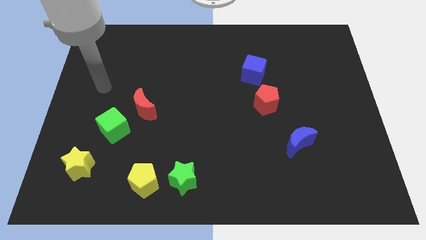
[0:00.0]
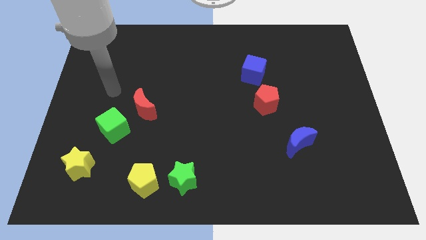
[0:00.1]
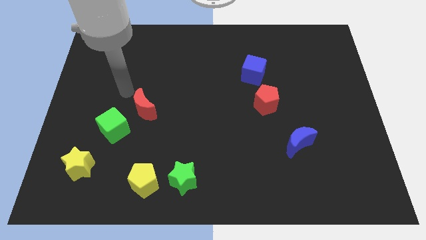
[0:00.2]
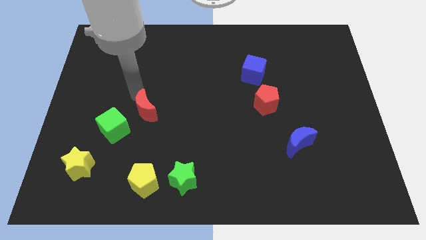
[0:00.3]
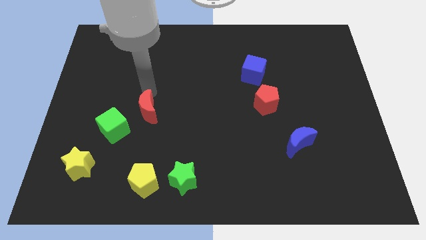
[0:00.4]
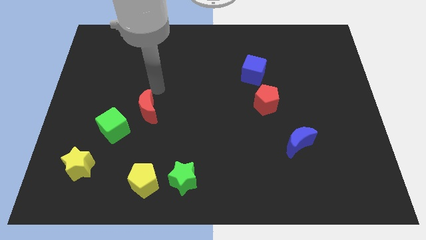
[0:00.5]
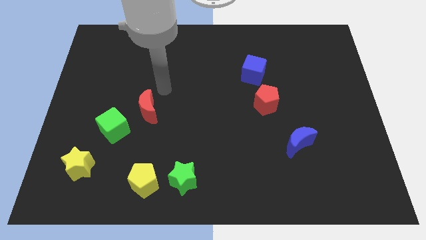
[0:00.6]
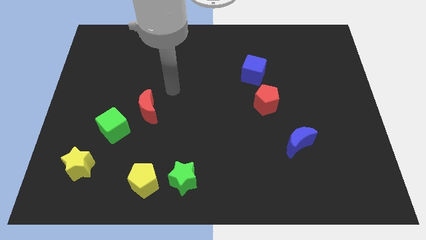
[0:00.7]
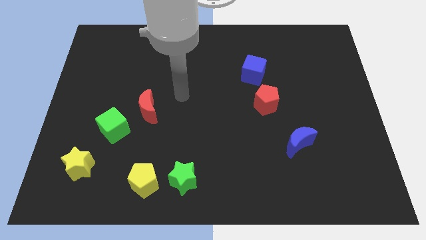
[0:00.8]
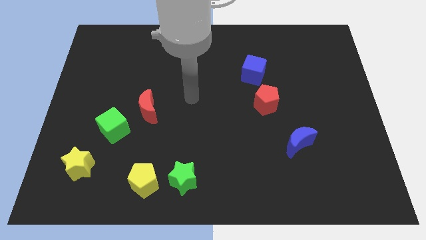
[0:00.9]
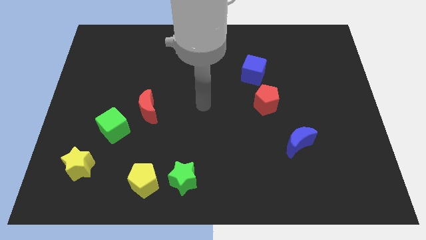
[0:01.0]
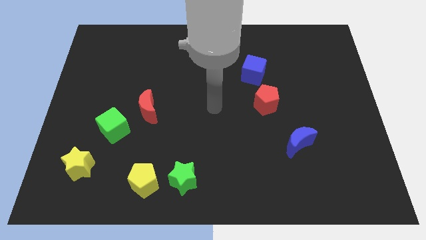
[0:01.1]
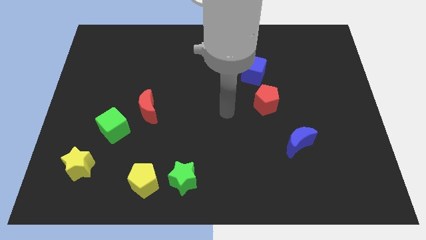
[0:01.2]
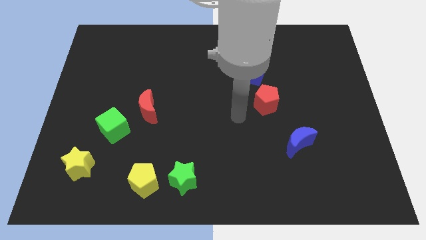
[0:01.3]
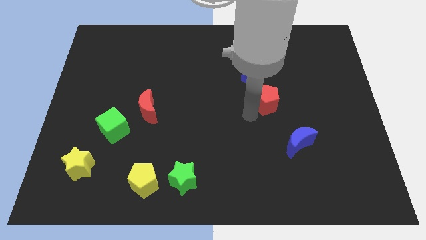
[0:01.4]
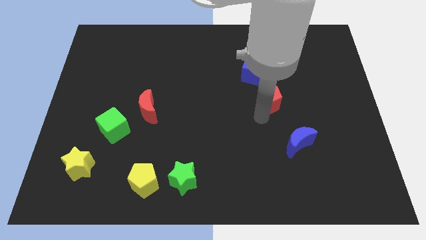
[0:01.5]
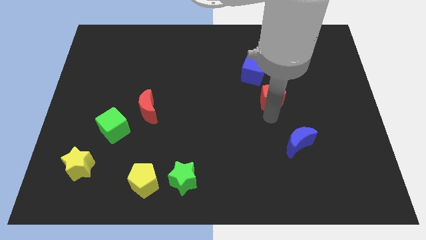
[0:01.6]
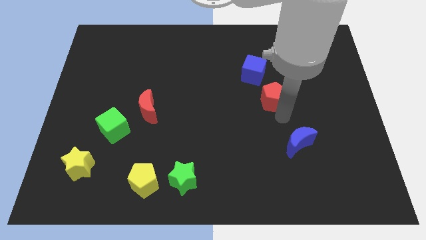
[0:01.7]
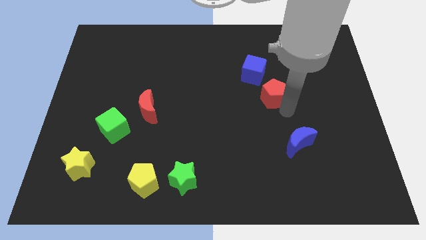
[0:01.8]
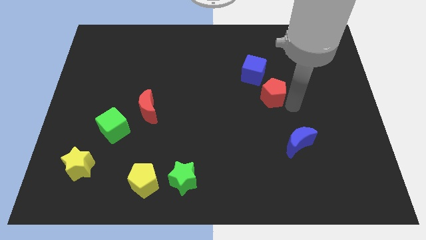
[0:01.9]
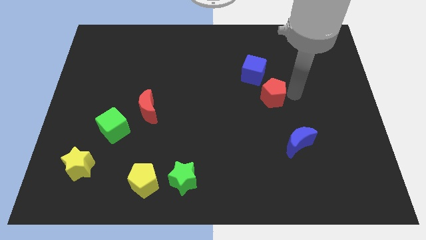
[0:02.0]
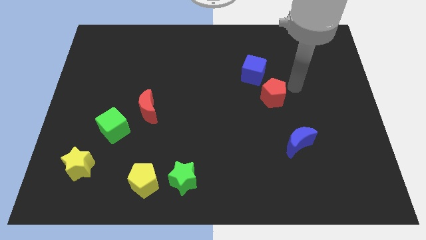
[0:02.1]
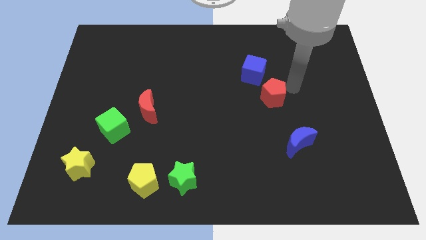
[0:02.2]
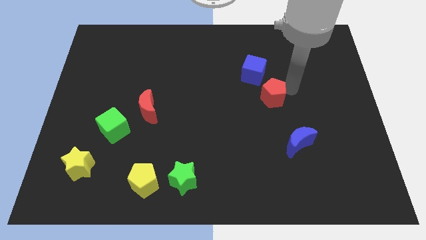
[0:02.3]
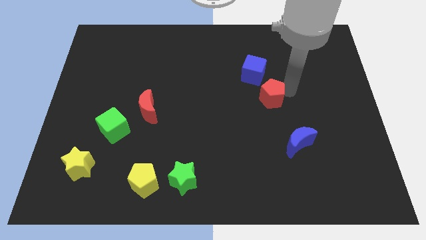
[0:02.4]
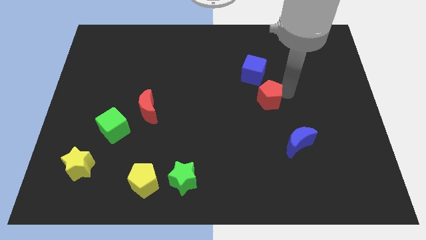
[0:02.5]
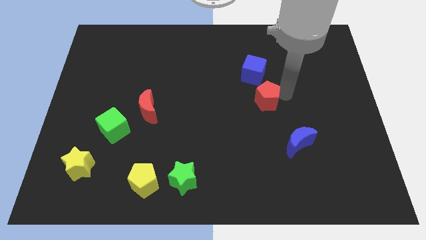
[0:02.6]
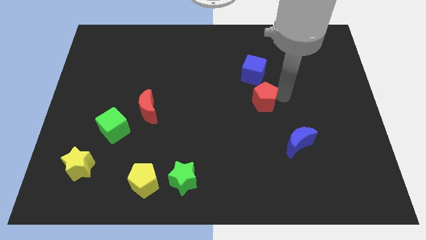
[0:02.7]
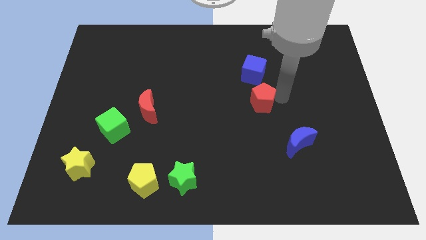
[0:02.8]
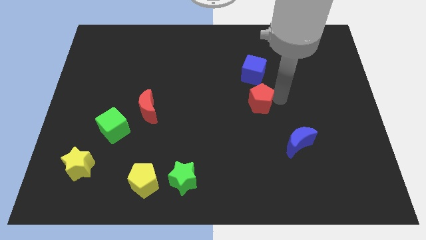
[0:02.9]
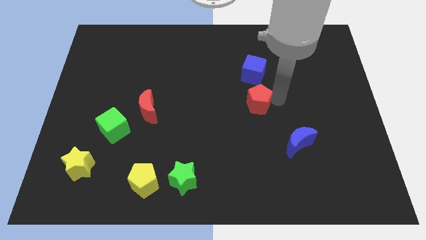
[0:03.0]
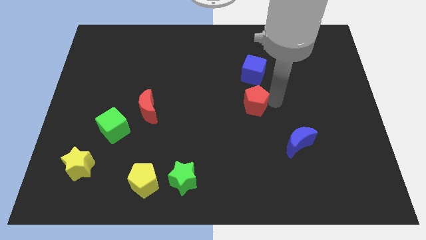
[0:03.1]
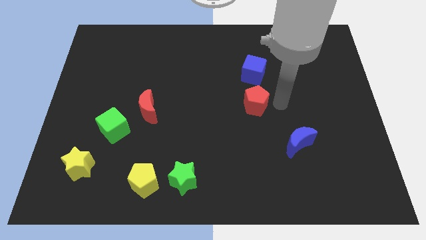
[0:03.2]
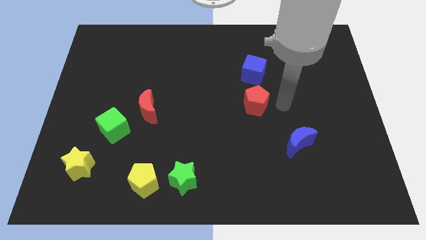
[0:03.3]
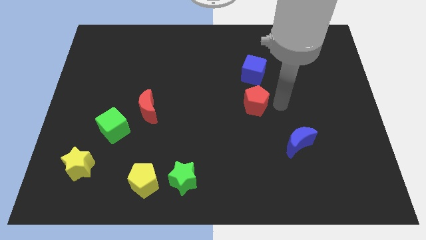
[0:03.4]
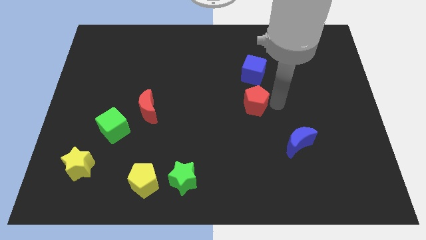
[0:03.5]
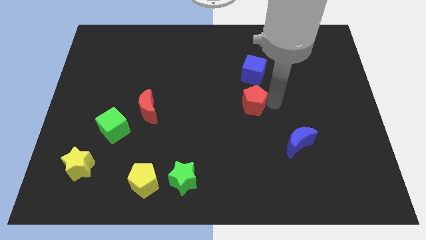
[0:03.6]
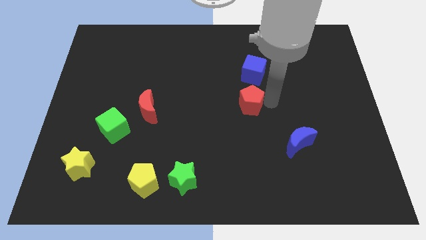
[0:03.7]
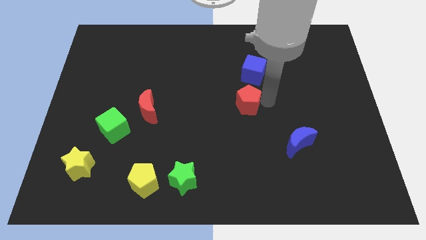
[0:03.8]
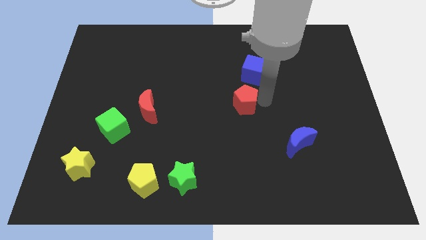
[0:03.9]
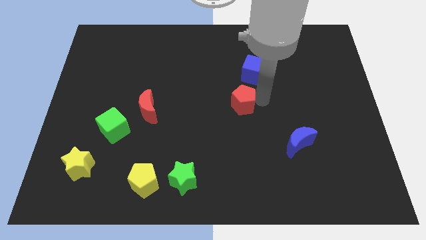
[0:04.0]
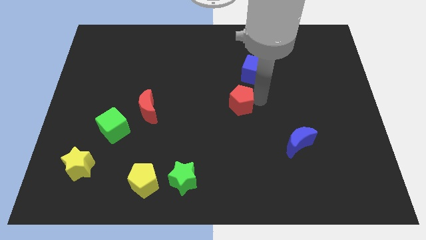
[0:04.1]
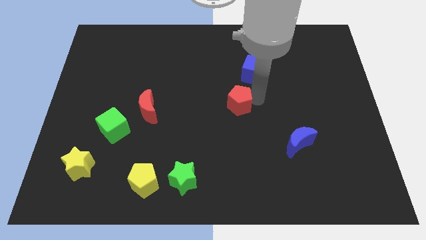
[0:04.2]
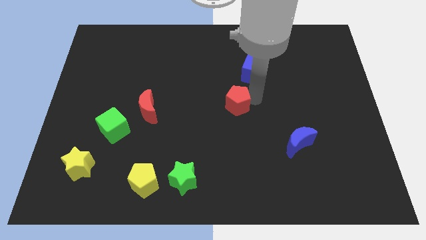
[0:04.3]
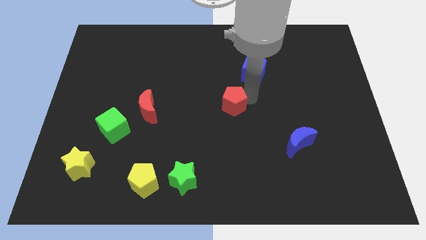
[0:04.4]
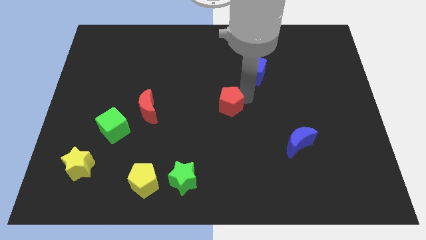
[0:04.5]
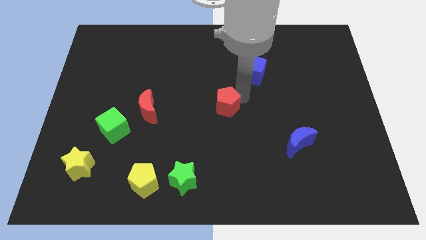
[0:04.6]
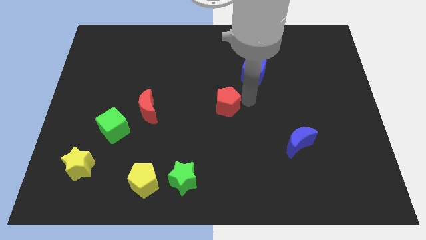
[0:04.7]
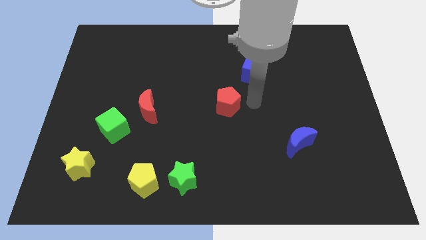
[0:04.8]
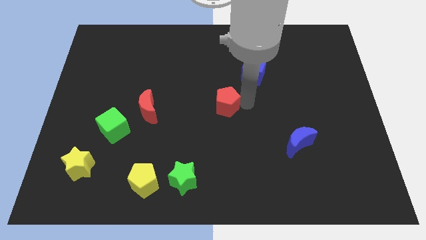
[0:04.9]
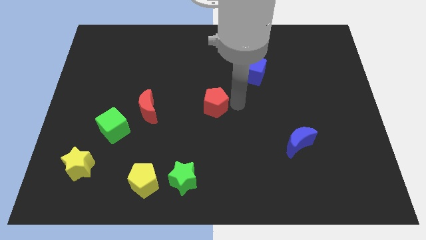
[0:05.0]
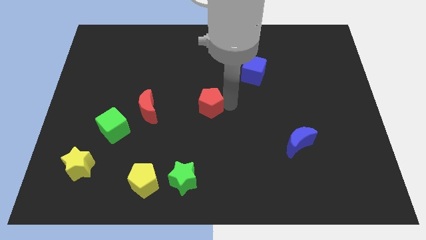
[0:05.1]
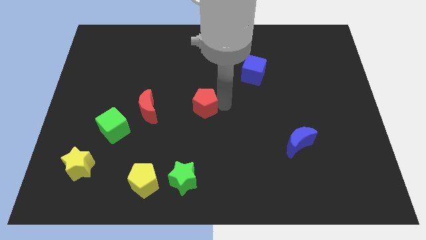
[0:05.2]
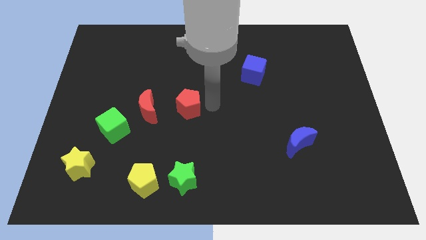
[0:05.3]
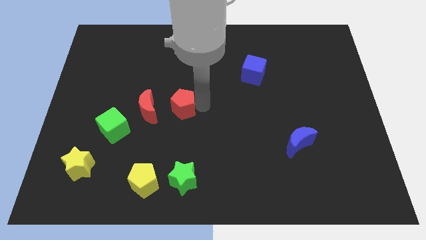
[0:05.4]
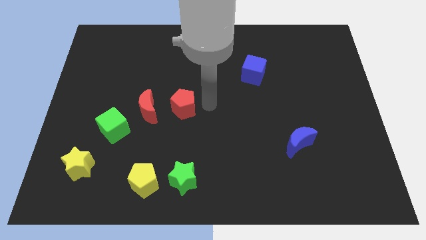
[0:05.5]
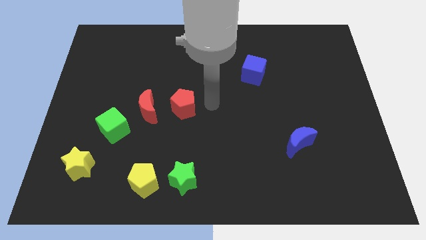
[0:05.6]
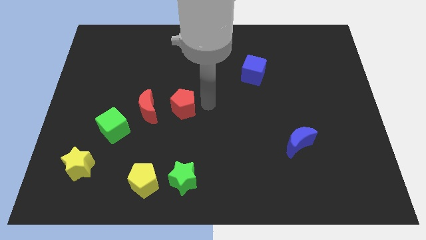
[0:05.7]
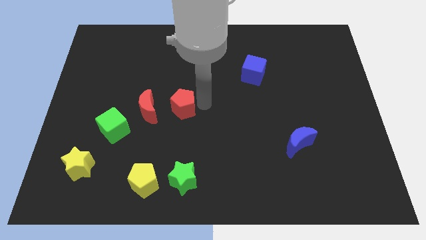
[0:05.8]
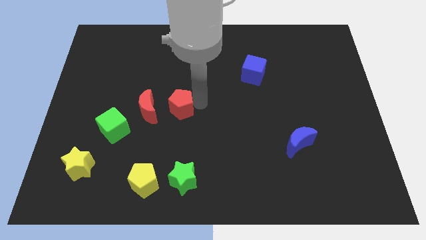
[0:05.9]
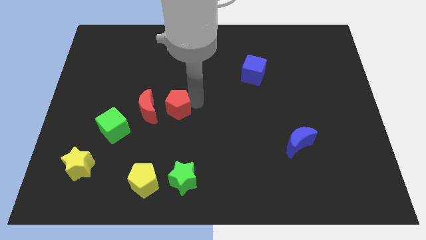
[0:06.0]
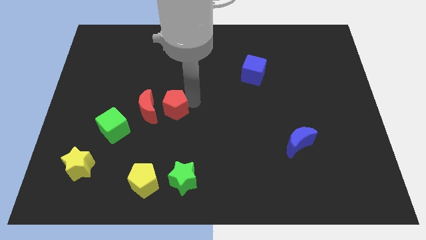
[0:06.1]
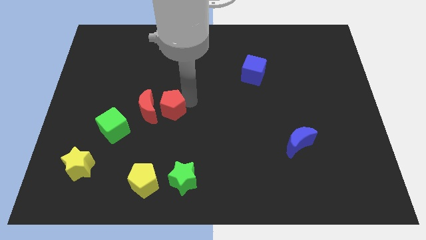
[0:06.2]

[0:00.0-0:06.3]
push the red pentagon close to the red moon

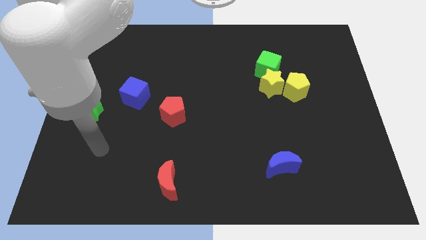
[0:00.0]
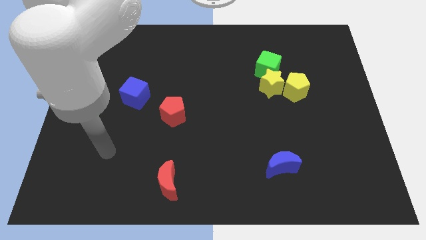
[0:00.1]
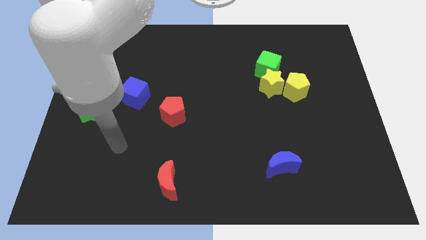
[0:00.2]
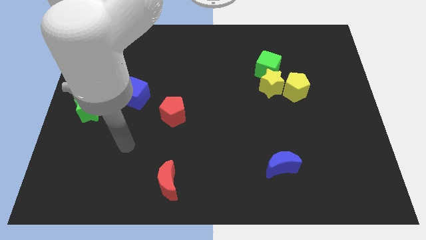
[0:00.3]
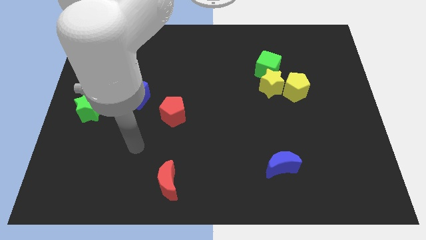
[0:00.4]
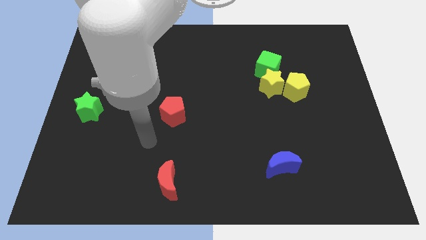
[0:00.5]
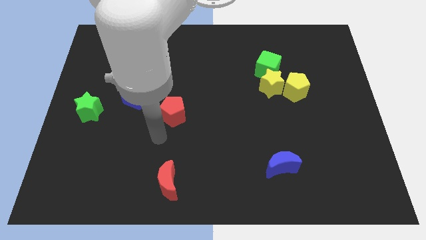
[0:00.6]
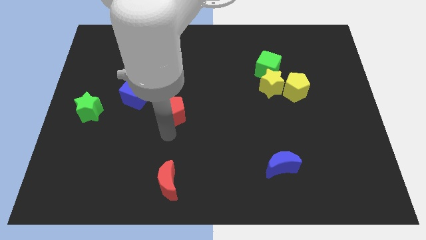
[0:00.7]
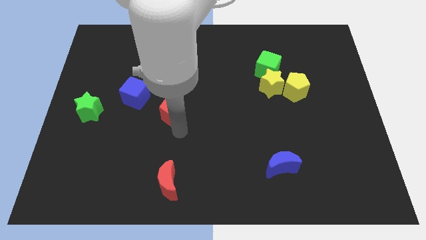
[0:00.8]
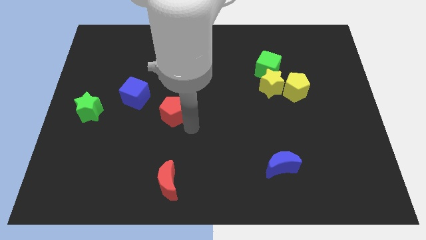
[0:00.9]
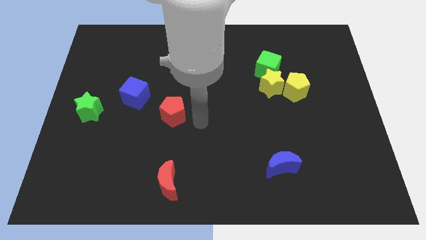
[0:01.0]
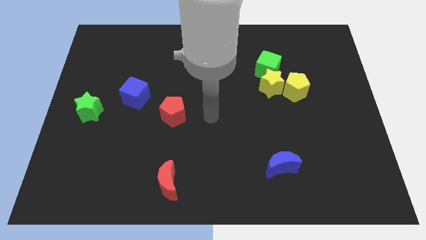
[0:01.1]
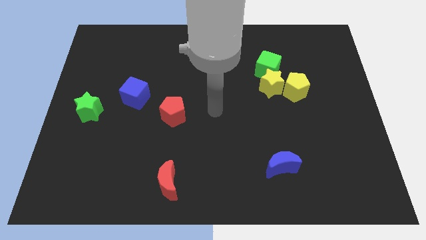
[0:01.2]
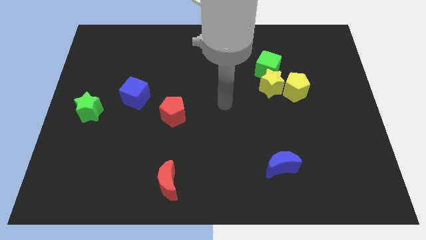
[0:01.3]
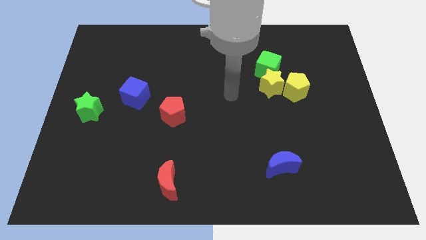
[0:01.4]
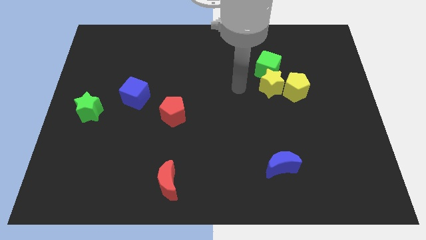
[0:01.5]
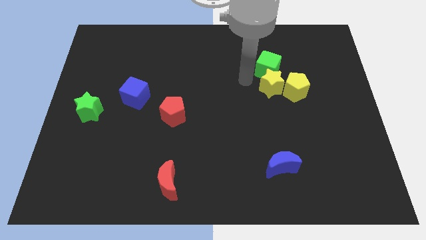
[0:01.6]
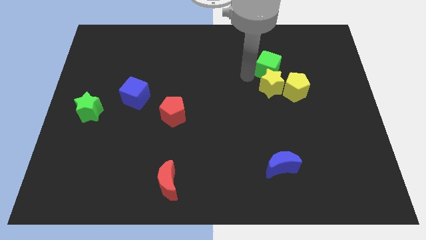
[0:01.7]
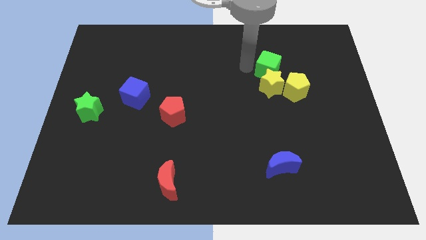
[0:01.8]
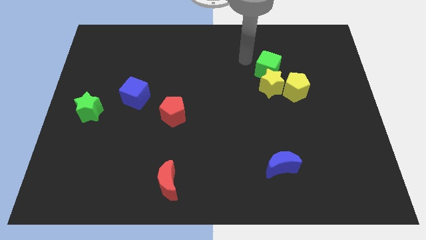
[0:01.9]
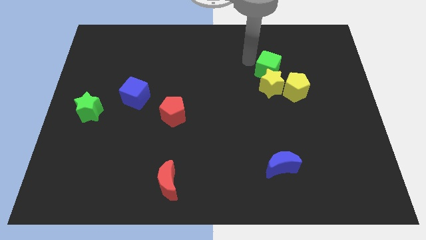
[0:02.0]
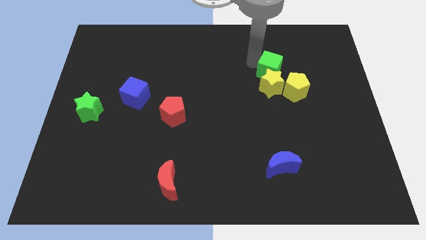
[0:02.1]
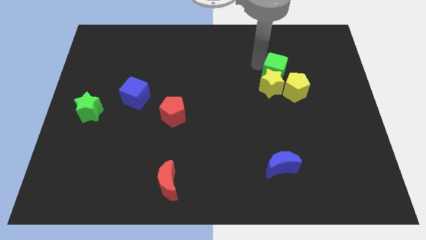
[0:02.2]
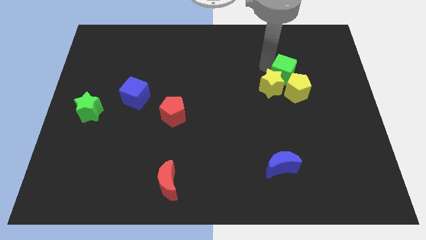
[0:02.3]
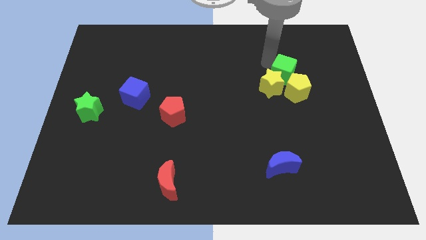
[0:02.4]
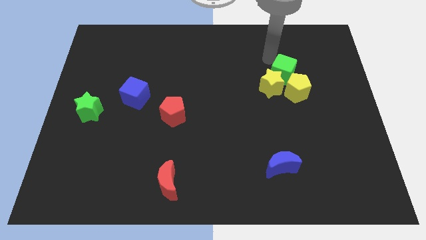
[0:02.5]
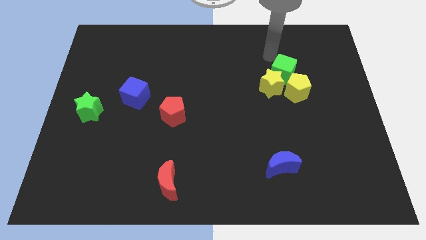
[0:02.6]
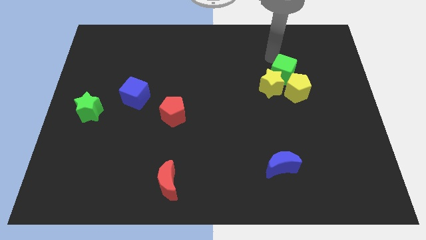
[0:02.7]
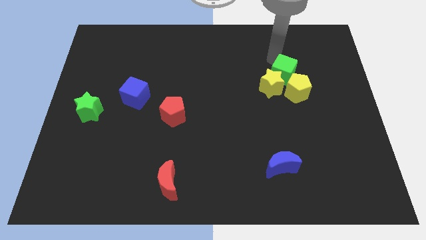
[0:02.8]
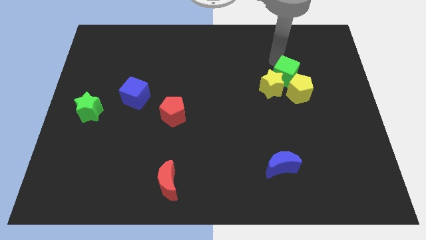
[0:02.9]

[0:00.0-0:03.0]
push the green cube towards the yellow pentagon
